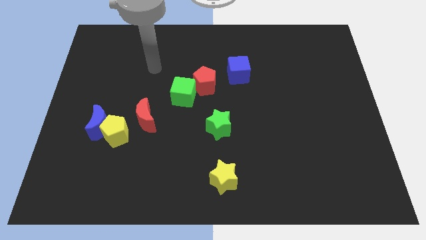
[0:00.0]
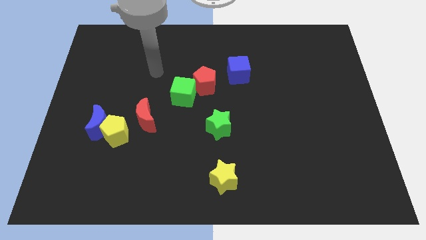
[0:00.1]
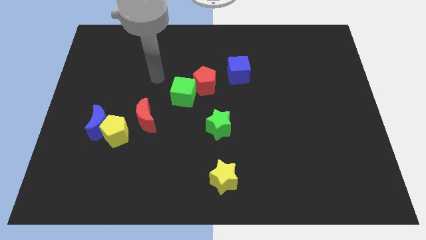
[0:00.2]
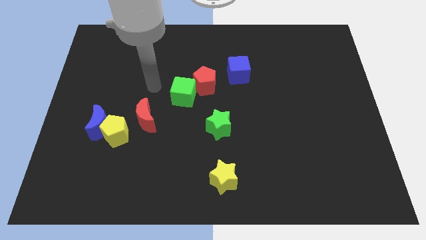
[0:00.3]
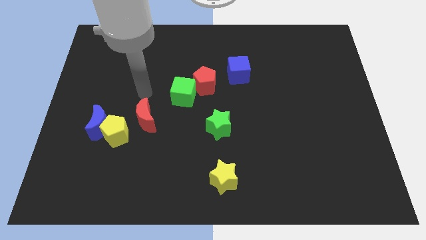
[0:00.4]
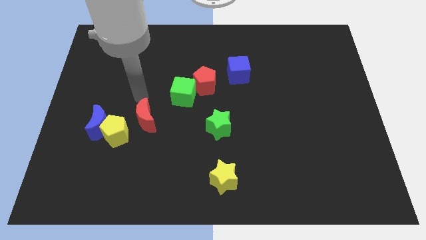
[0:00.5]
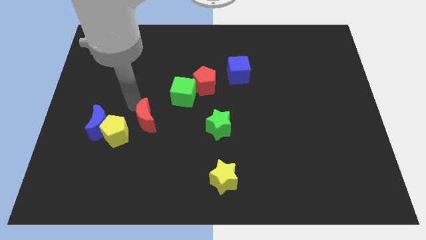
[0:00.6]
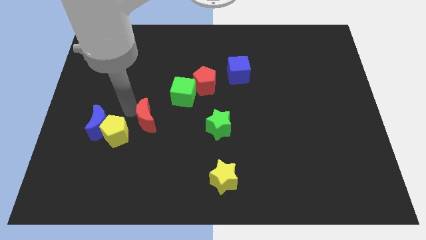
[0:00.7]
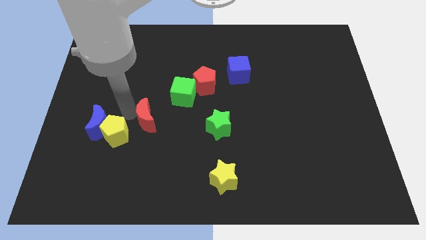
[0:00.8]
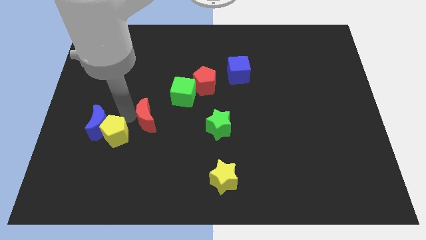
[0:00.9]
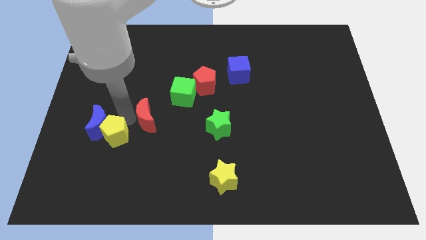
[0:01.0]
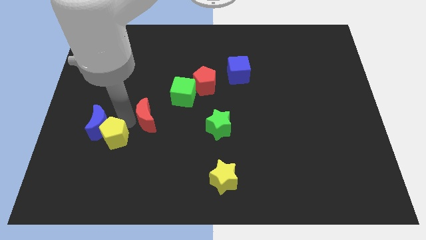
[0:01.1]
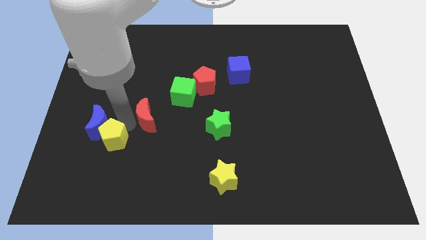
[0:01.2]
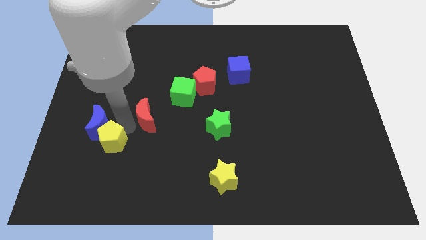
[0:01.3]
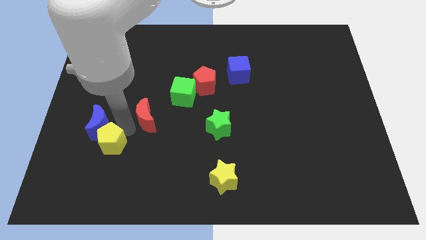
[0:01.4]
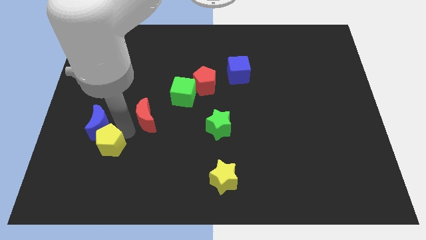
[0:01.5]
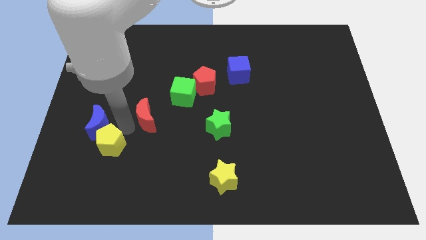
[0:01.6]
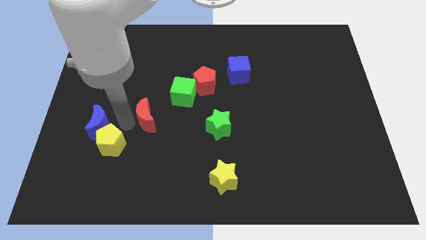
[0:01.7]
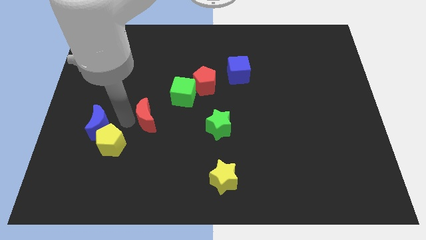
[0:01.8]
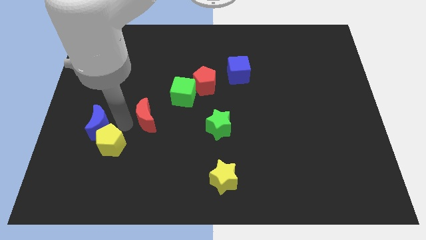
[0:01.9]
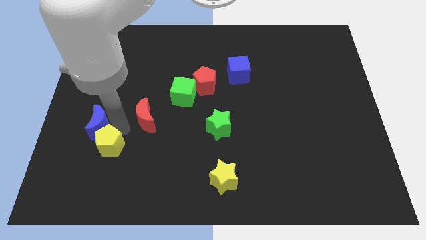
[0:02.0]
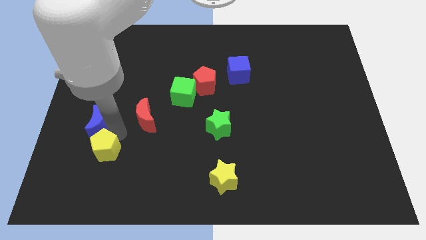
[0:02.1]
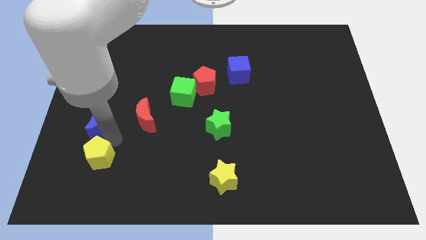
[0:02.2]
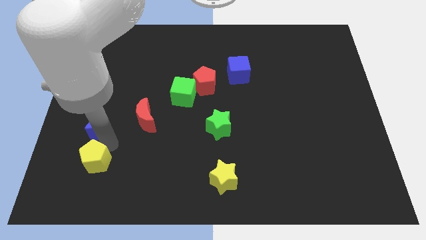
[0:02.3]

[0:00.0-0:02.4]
pull the yellow pentagon apart from the blue moon and red moon

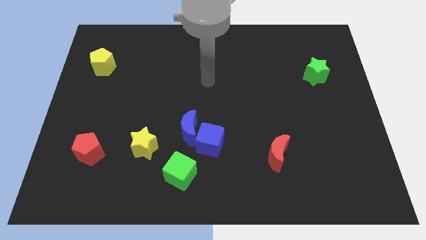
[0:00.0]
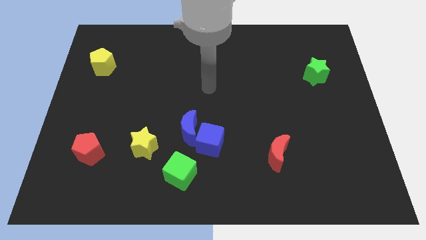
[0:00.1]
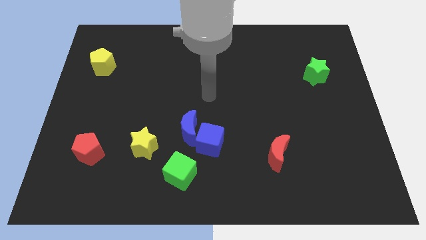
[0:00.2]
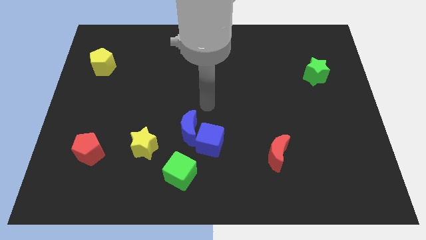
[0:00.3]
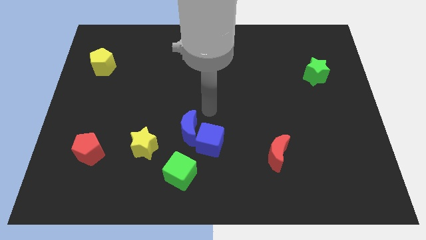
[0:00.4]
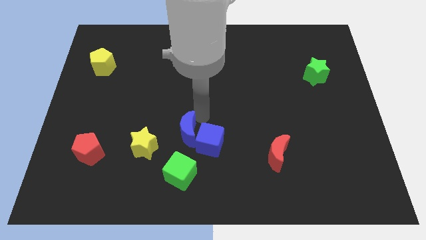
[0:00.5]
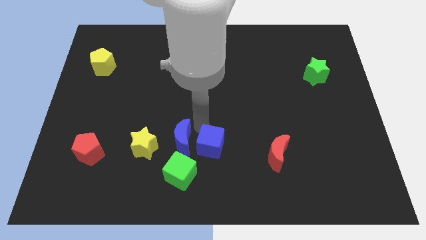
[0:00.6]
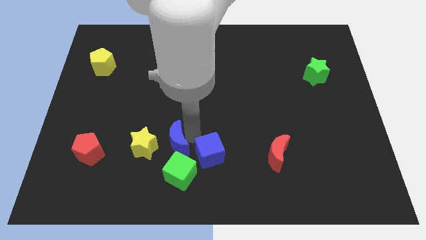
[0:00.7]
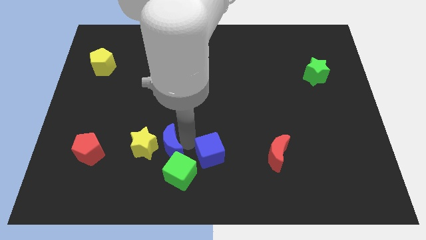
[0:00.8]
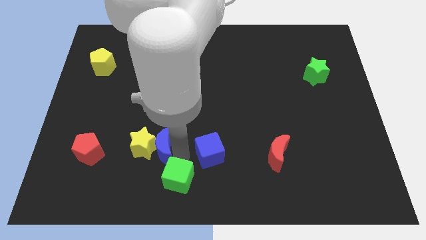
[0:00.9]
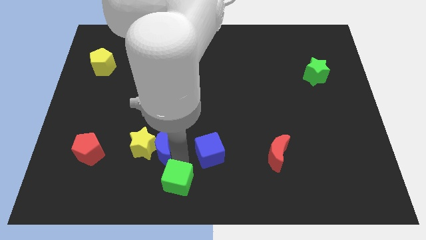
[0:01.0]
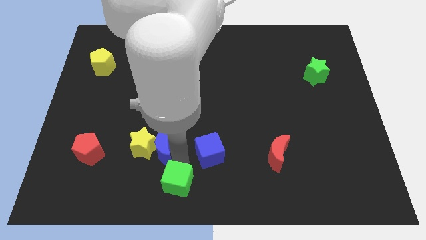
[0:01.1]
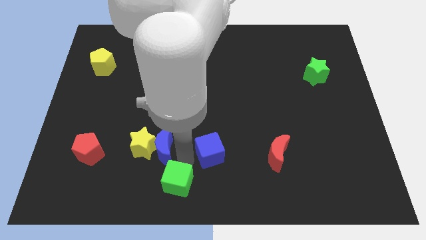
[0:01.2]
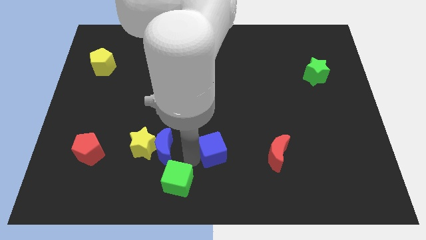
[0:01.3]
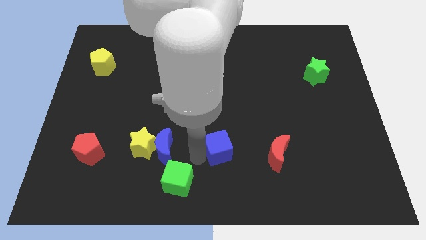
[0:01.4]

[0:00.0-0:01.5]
move the blue cube away from the blue moon and green cube

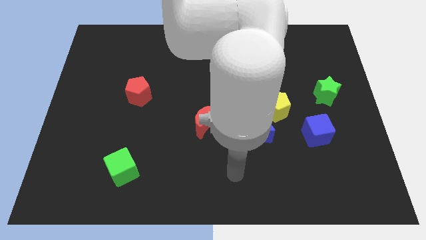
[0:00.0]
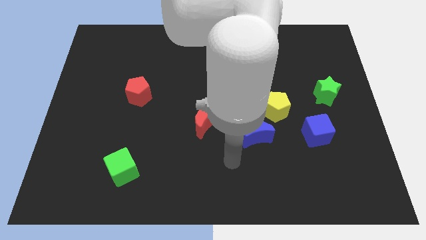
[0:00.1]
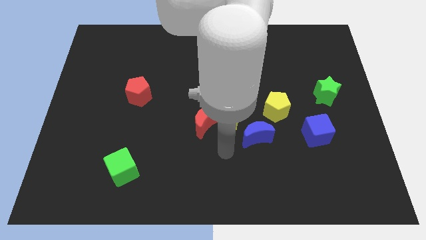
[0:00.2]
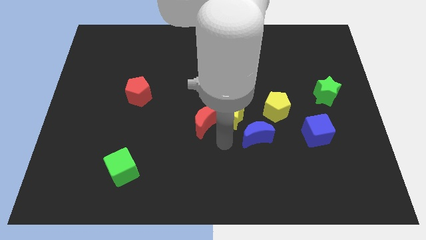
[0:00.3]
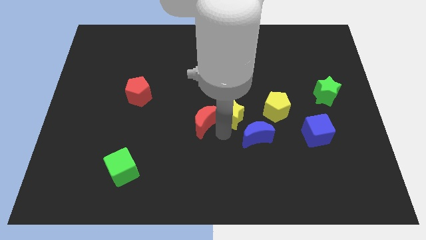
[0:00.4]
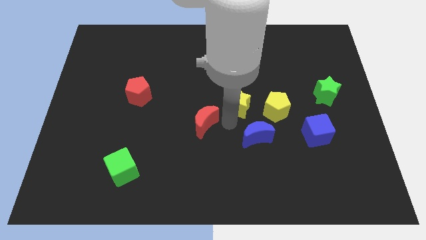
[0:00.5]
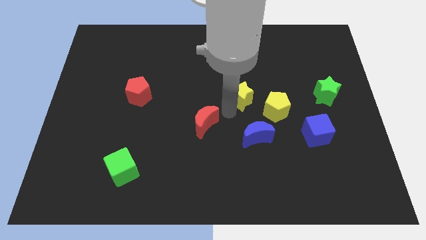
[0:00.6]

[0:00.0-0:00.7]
pull the red moon apart from the yellow star

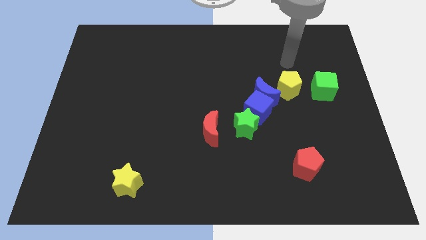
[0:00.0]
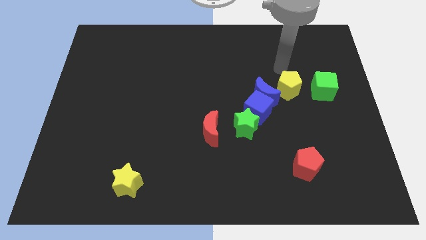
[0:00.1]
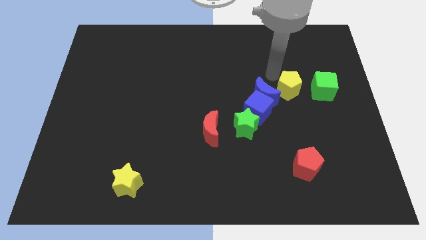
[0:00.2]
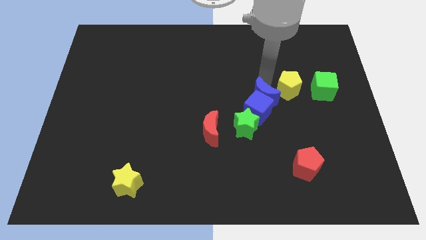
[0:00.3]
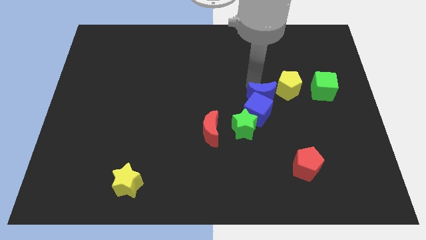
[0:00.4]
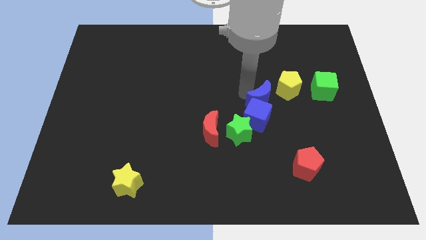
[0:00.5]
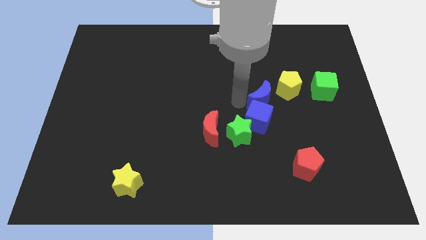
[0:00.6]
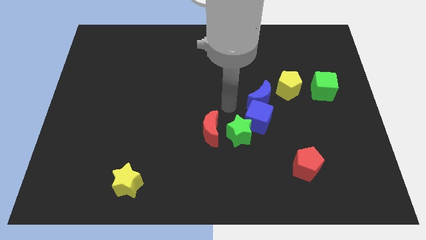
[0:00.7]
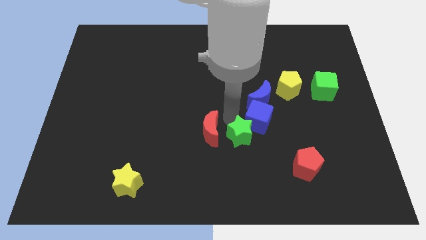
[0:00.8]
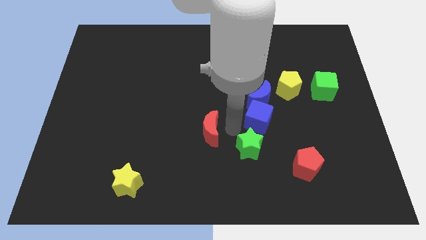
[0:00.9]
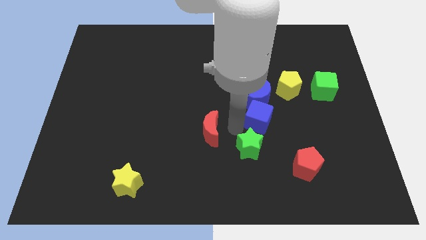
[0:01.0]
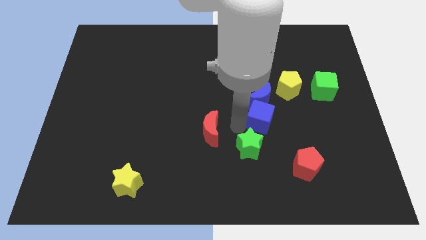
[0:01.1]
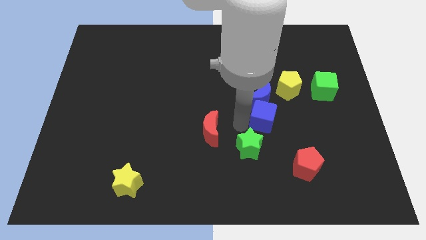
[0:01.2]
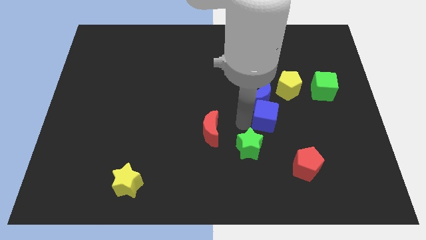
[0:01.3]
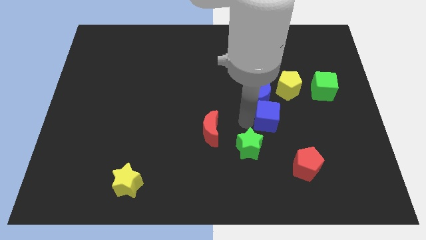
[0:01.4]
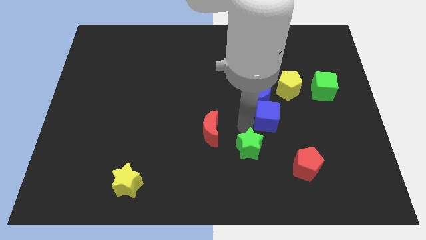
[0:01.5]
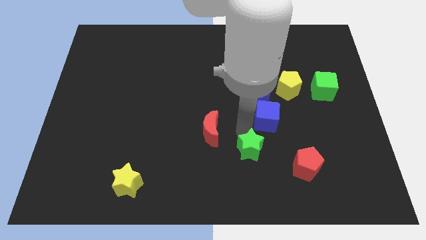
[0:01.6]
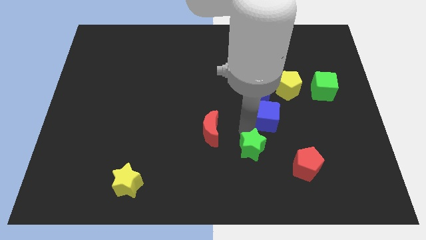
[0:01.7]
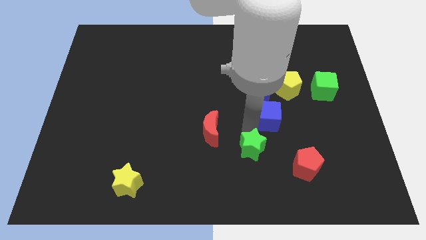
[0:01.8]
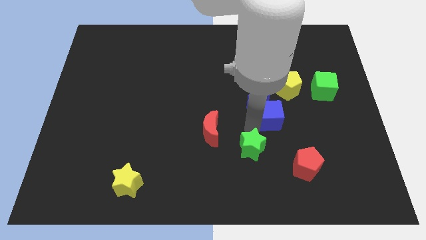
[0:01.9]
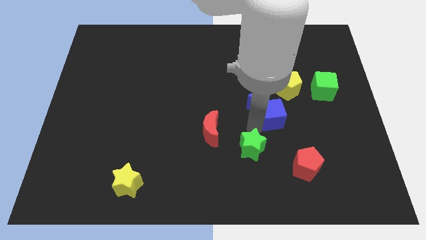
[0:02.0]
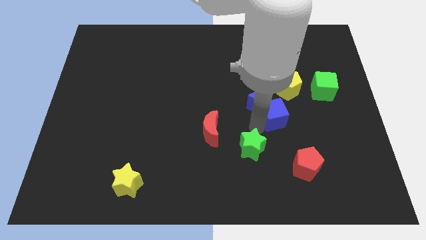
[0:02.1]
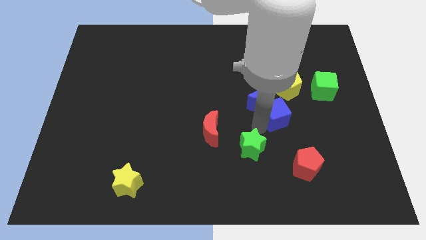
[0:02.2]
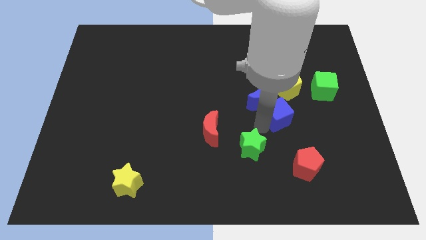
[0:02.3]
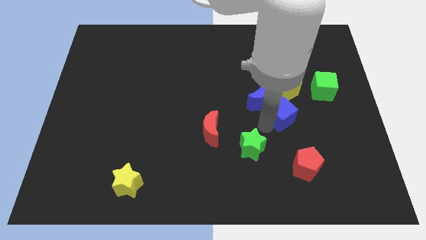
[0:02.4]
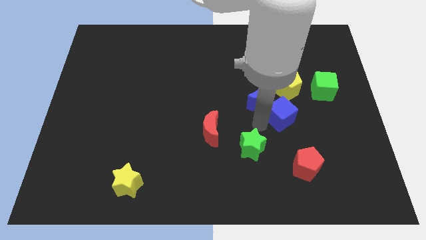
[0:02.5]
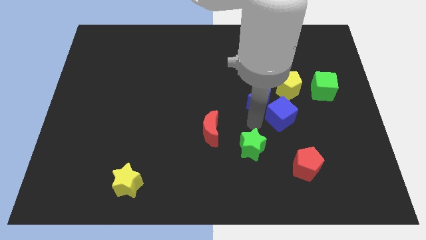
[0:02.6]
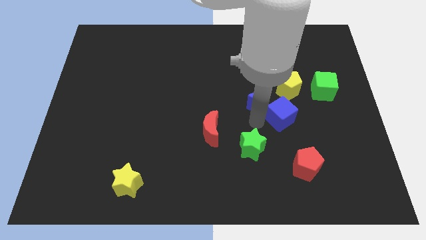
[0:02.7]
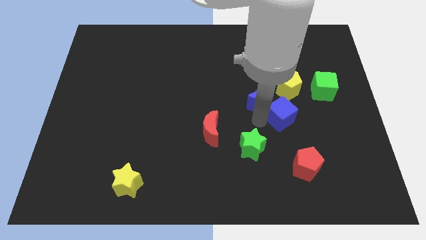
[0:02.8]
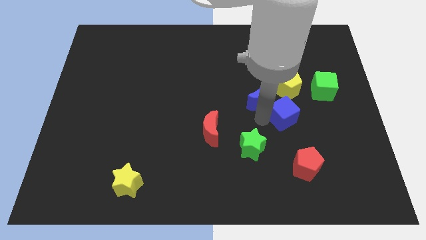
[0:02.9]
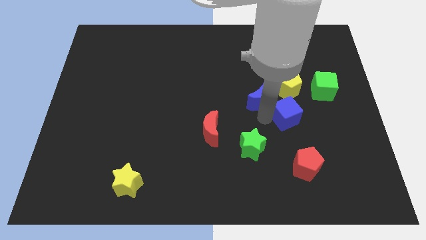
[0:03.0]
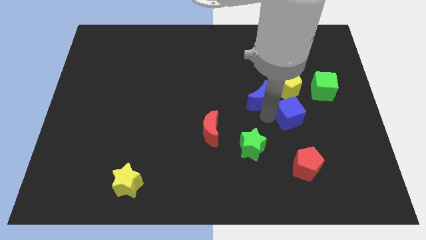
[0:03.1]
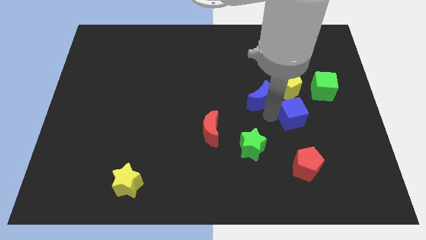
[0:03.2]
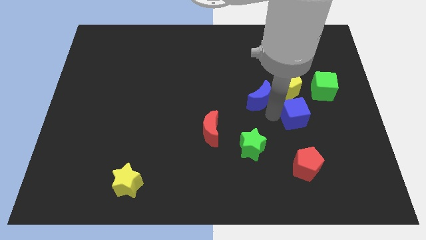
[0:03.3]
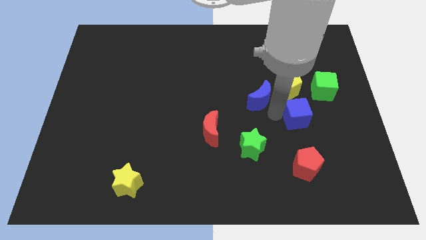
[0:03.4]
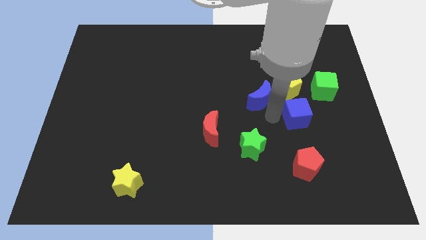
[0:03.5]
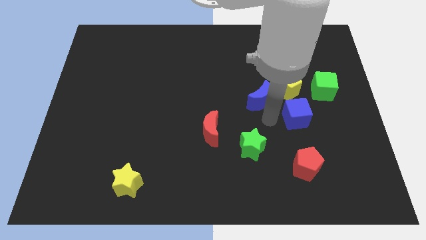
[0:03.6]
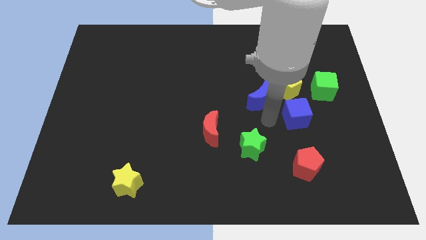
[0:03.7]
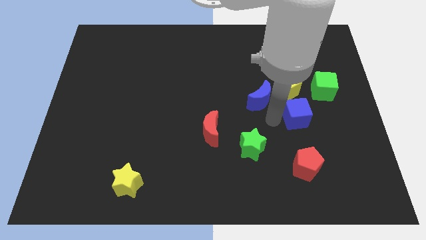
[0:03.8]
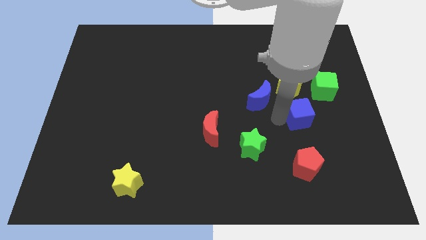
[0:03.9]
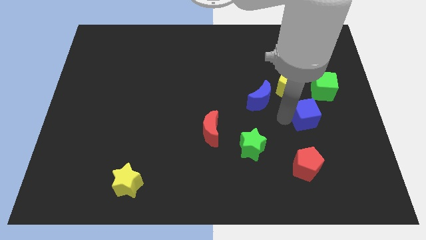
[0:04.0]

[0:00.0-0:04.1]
separate the blue cube from the blue moon and green star

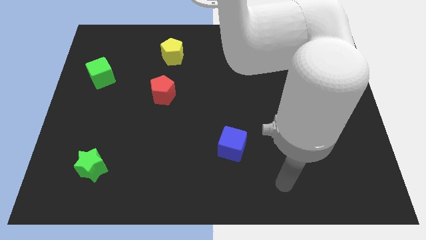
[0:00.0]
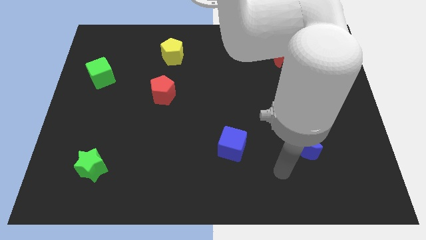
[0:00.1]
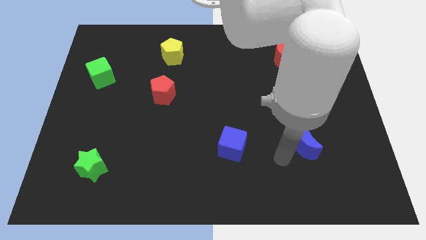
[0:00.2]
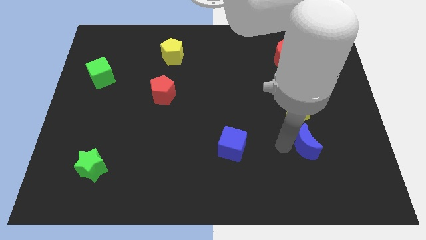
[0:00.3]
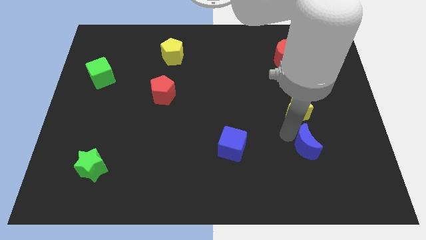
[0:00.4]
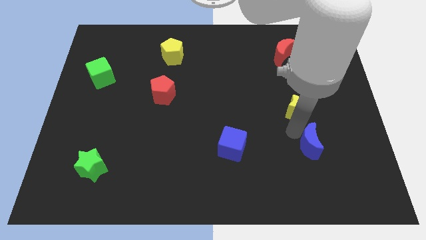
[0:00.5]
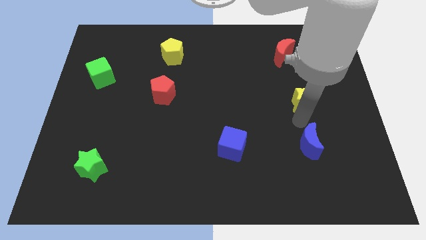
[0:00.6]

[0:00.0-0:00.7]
move the blue moon away from the yellow star
